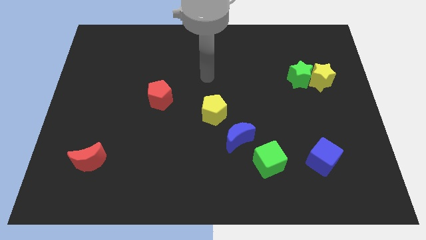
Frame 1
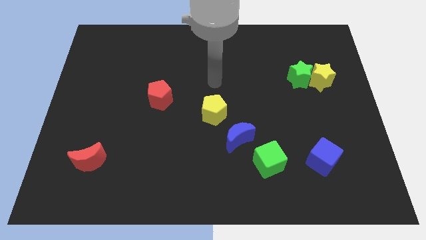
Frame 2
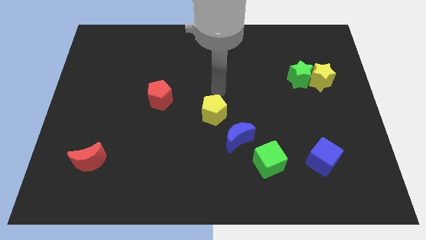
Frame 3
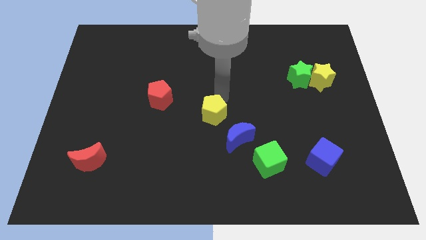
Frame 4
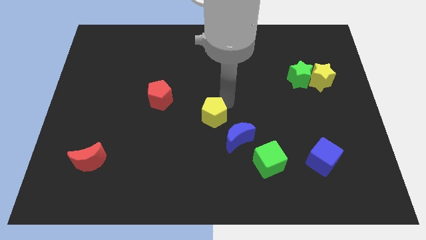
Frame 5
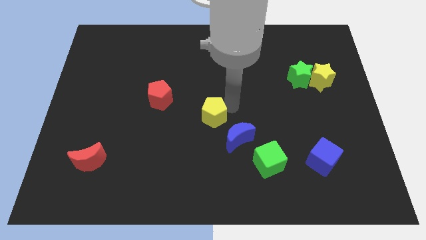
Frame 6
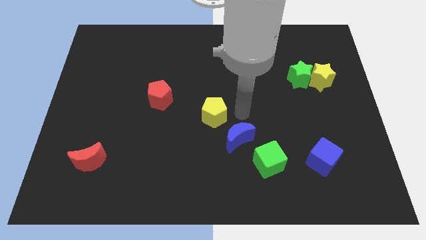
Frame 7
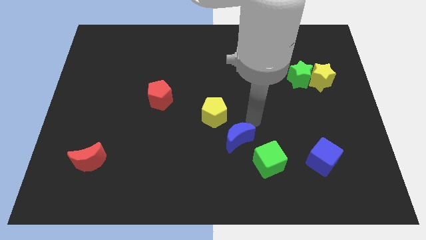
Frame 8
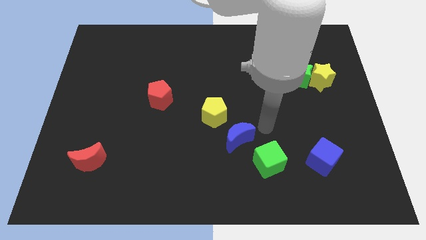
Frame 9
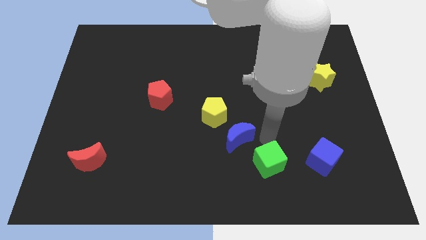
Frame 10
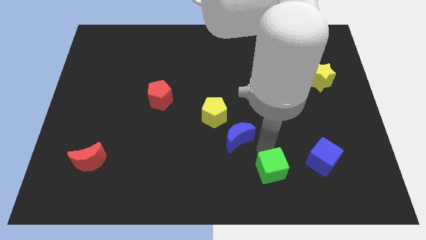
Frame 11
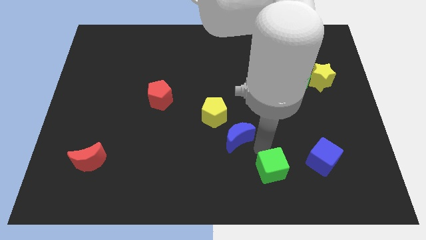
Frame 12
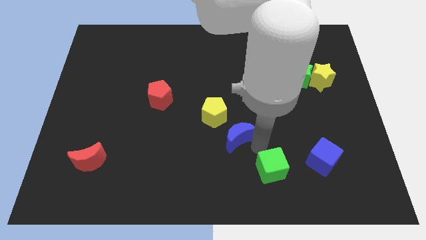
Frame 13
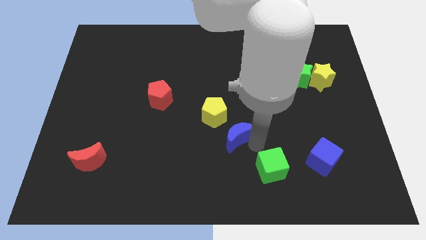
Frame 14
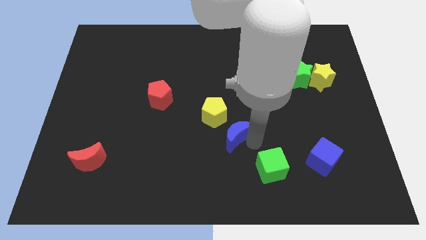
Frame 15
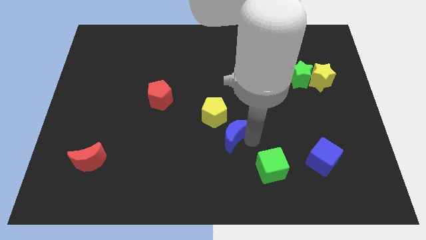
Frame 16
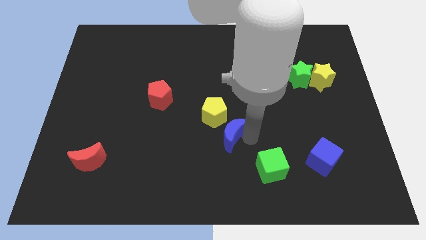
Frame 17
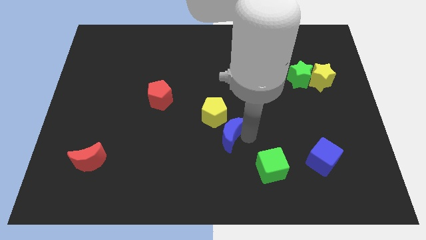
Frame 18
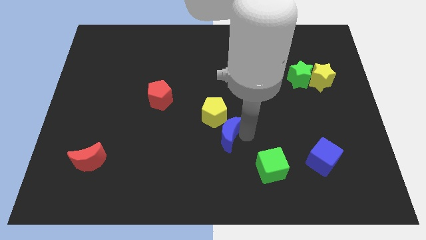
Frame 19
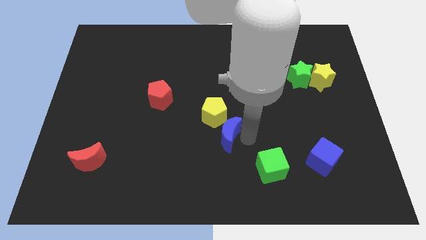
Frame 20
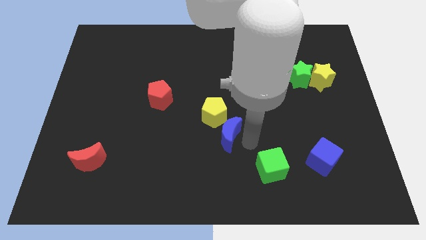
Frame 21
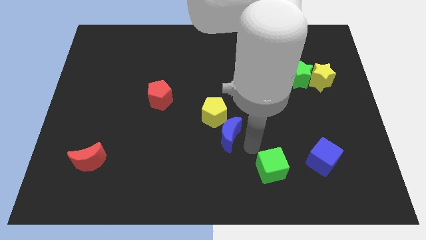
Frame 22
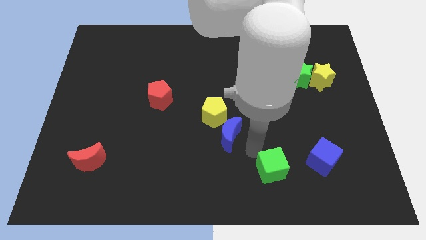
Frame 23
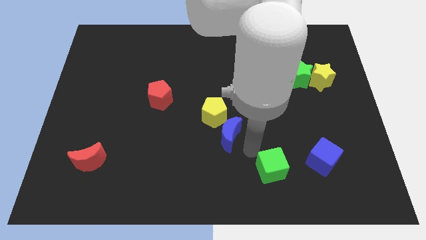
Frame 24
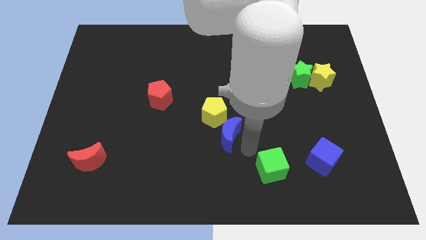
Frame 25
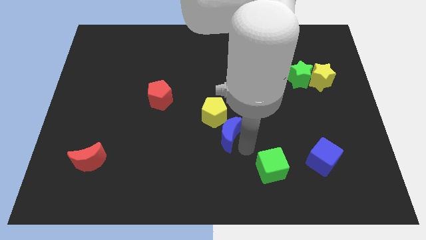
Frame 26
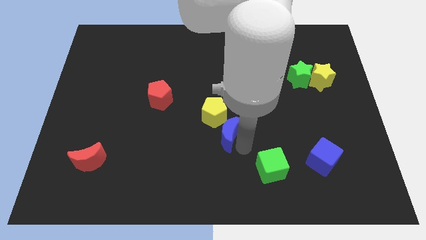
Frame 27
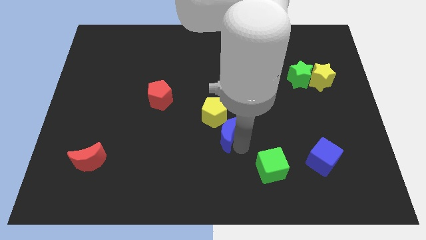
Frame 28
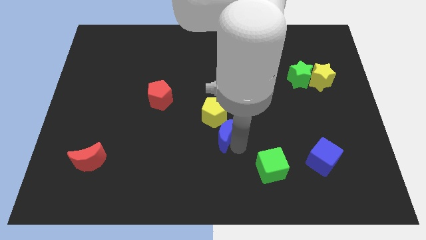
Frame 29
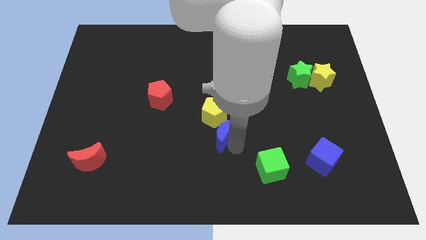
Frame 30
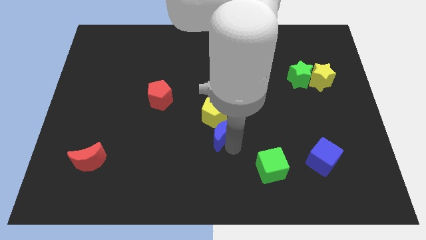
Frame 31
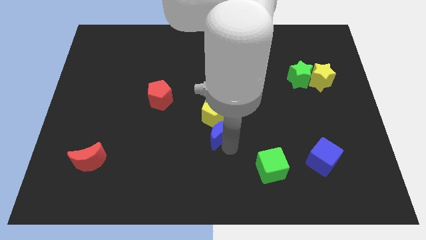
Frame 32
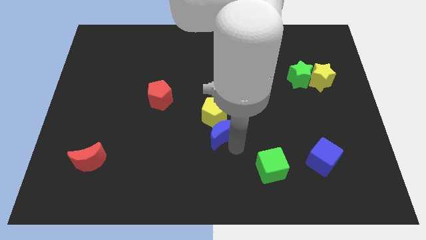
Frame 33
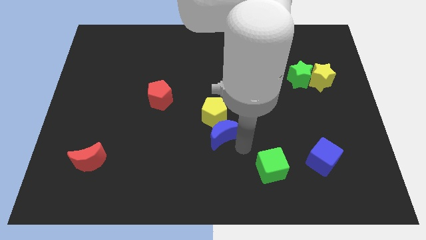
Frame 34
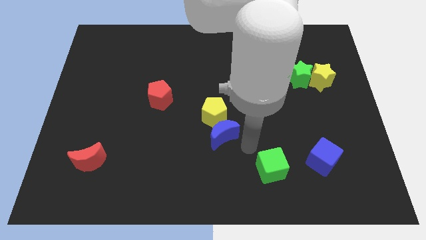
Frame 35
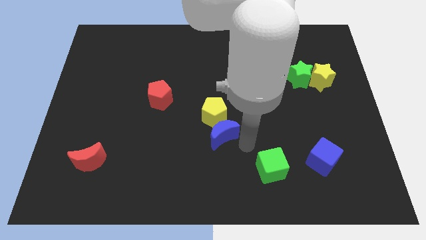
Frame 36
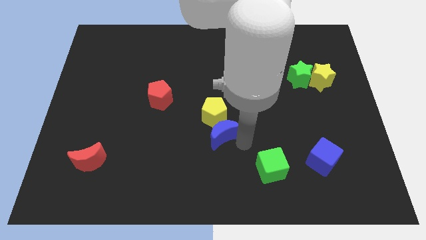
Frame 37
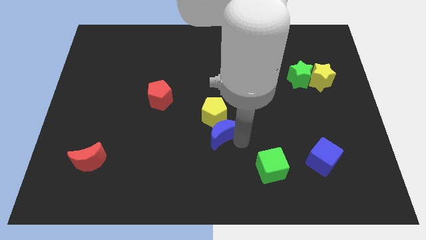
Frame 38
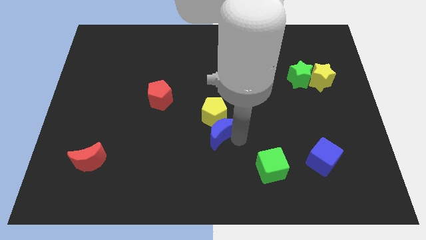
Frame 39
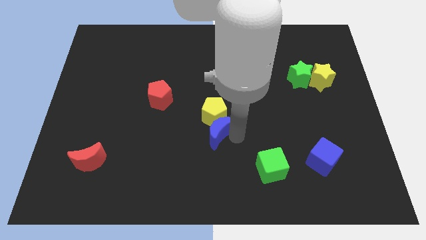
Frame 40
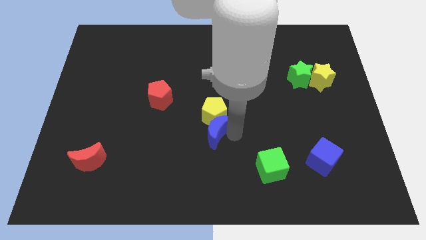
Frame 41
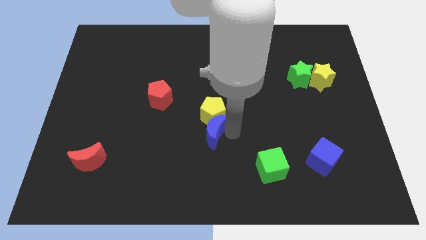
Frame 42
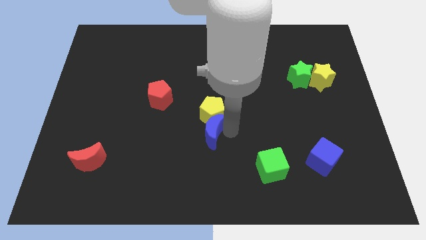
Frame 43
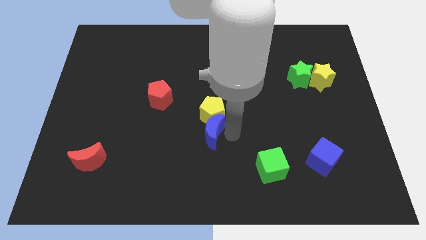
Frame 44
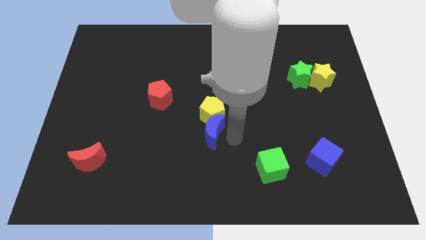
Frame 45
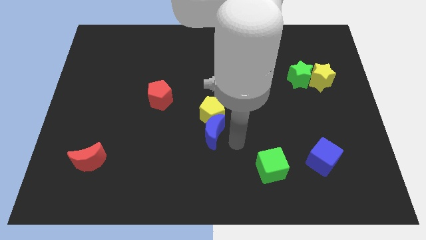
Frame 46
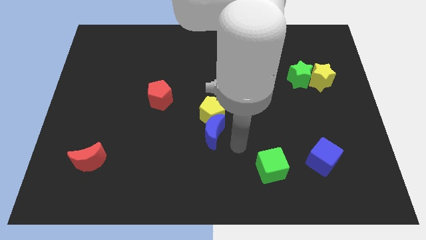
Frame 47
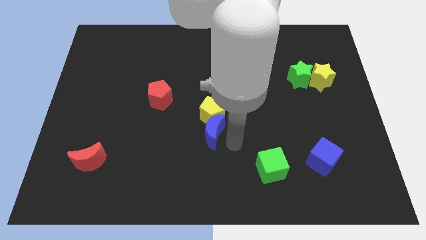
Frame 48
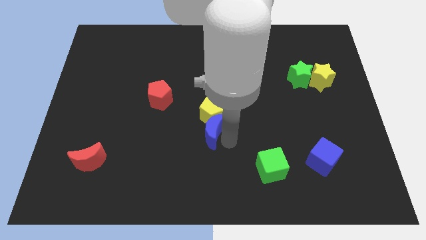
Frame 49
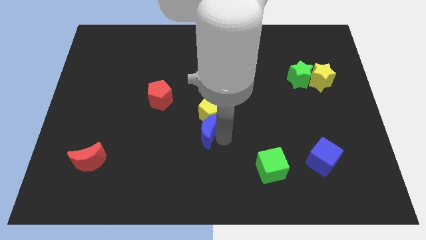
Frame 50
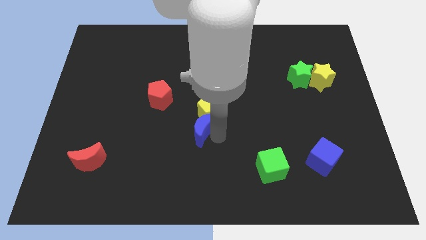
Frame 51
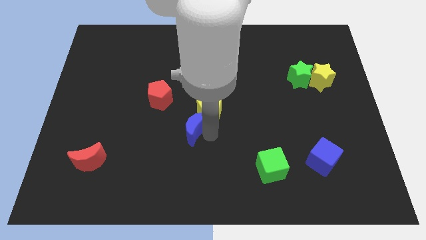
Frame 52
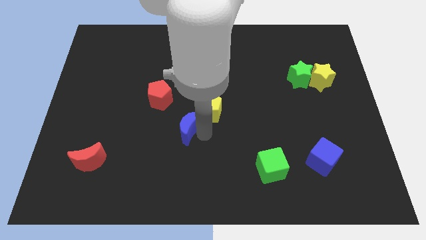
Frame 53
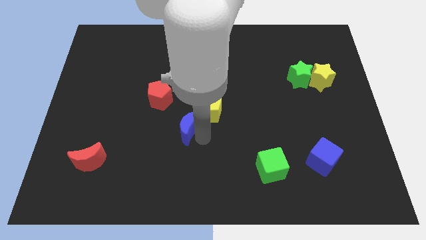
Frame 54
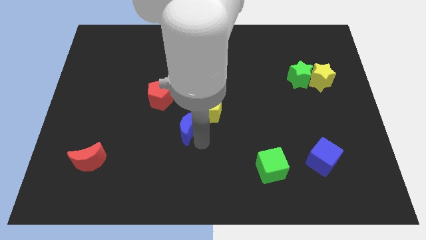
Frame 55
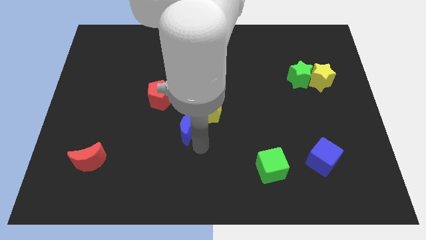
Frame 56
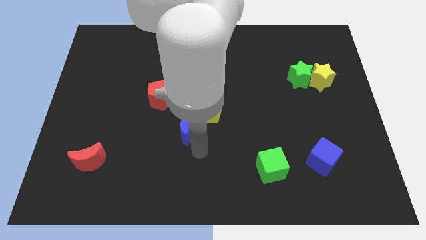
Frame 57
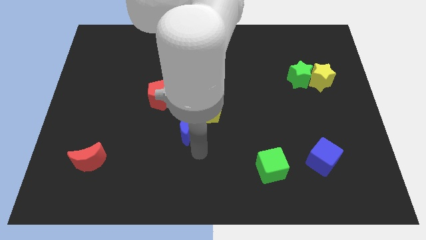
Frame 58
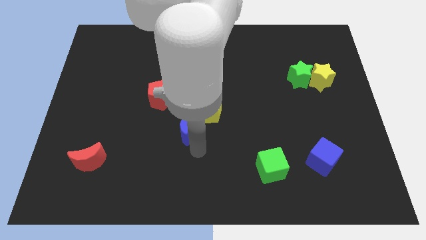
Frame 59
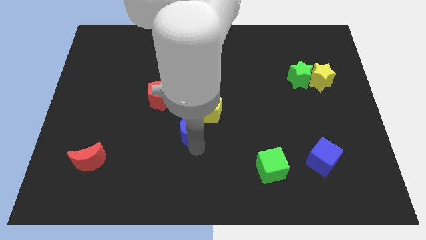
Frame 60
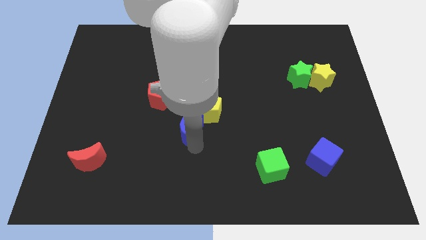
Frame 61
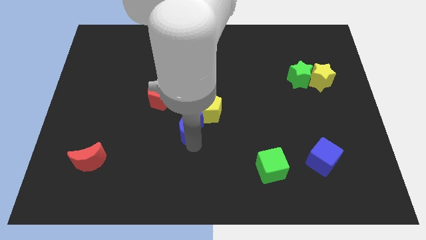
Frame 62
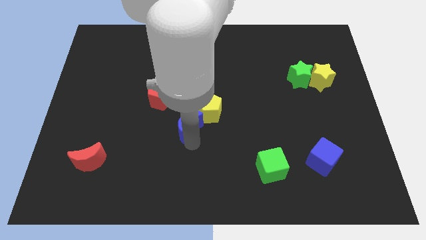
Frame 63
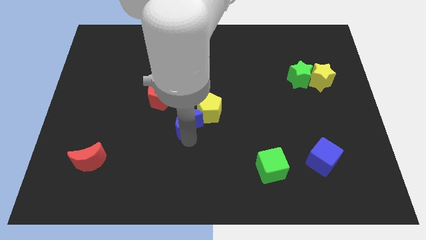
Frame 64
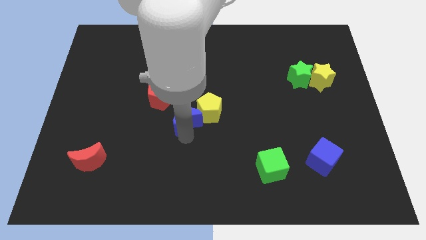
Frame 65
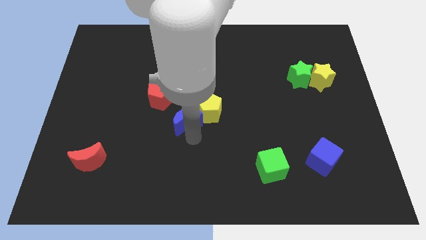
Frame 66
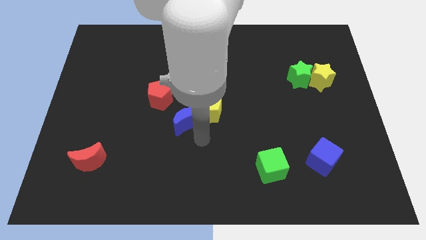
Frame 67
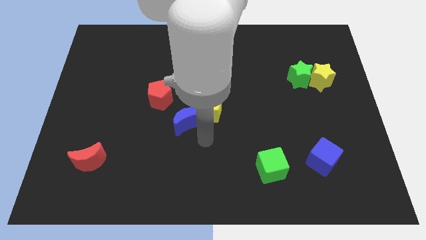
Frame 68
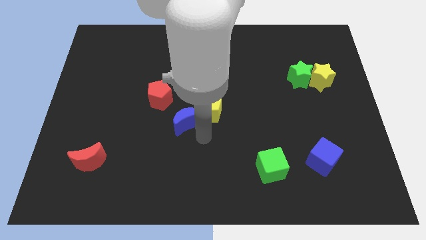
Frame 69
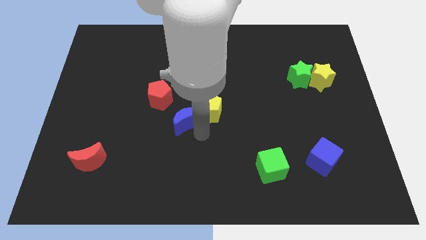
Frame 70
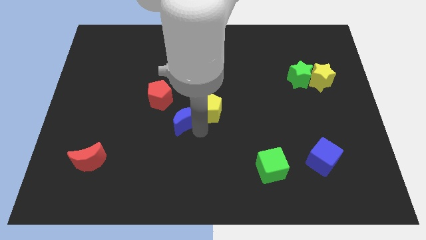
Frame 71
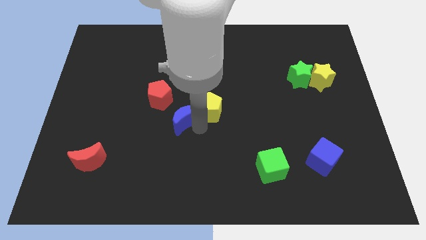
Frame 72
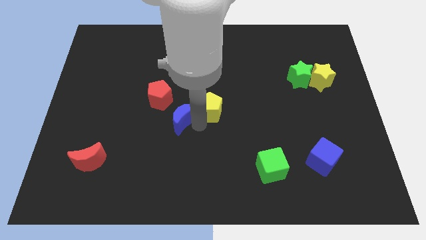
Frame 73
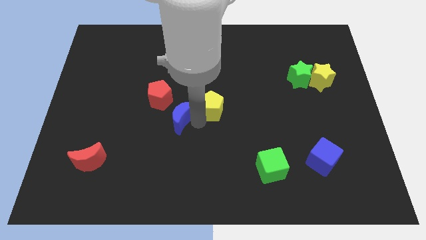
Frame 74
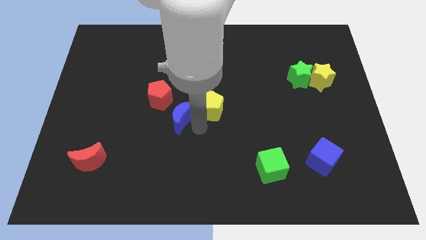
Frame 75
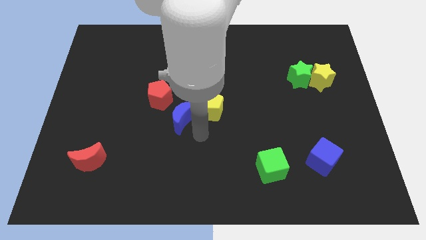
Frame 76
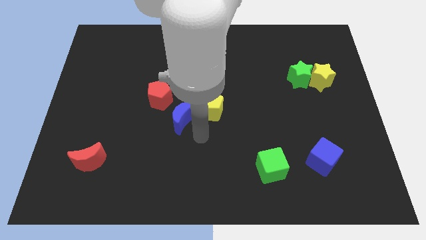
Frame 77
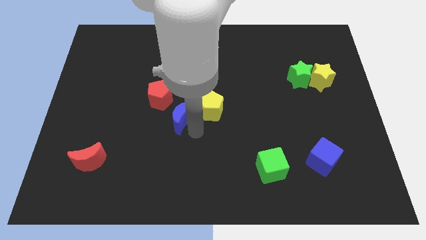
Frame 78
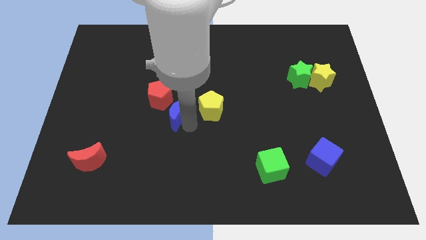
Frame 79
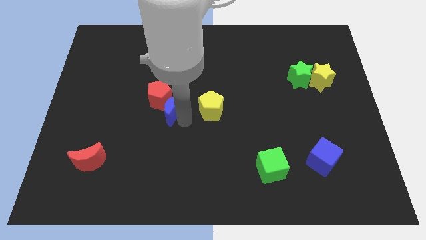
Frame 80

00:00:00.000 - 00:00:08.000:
move the blue moon to the red pentagon
